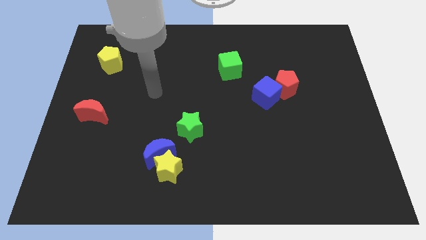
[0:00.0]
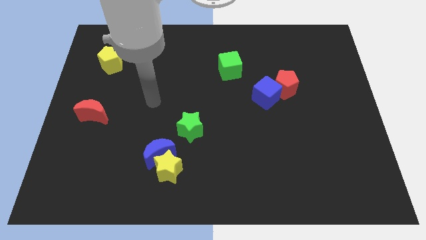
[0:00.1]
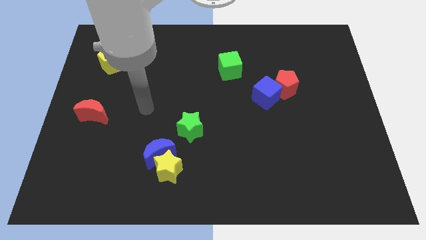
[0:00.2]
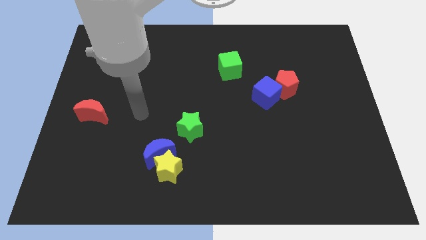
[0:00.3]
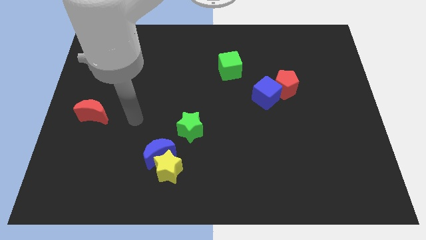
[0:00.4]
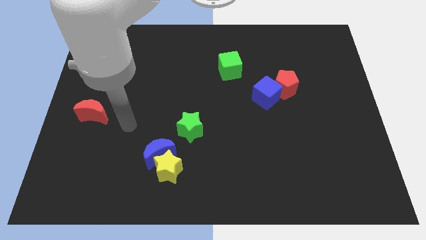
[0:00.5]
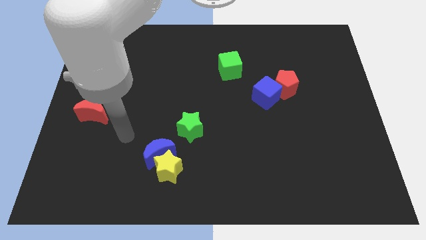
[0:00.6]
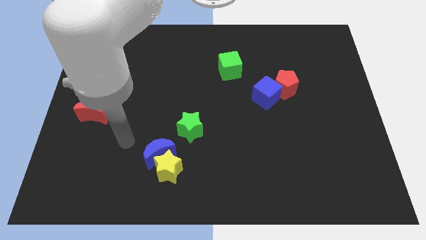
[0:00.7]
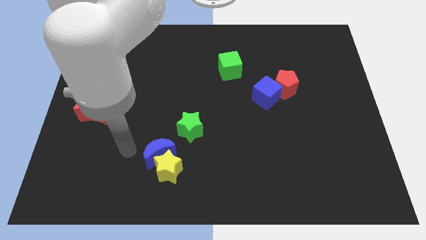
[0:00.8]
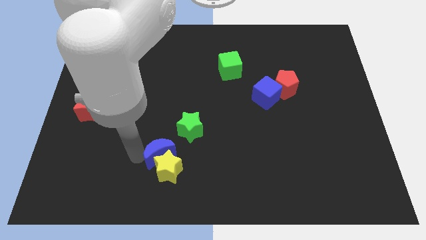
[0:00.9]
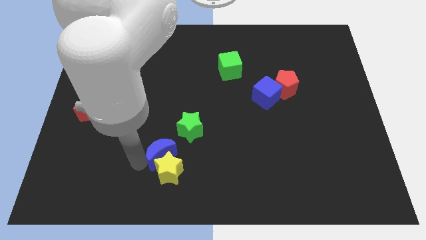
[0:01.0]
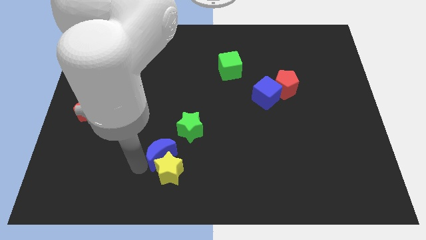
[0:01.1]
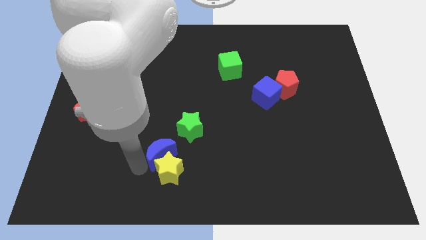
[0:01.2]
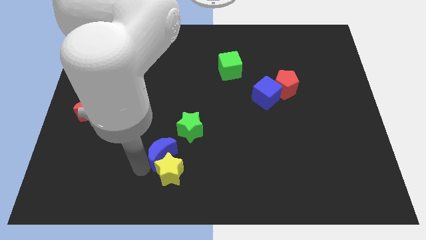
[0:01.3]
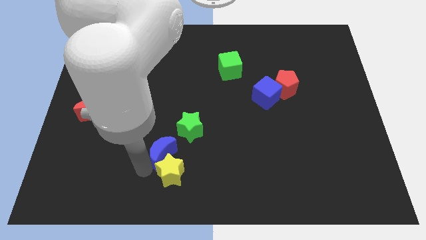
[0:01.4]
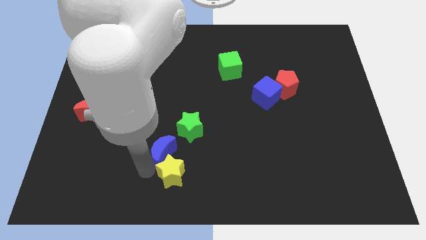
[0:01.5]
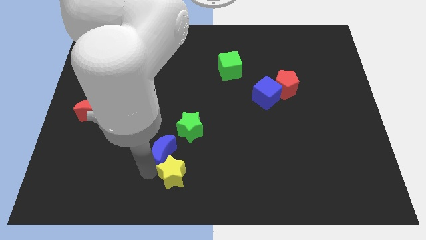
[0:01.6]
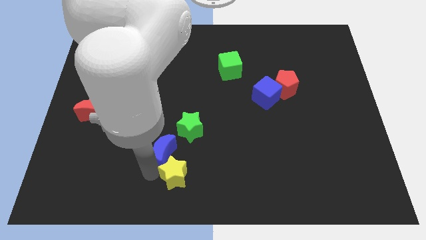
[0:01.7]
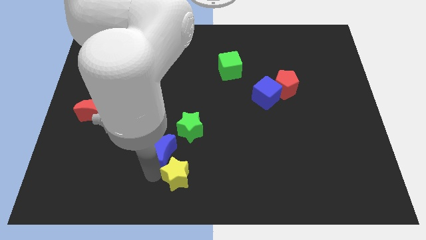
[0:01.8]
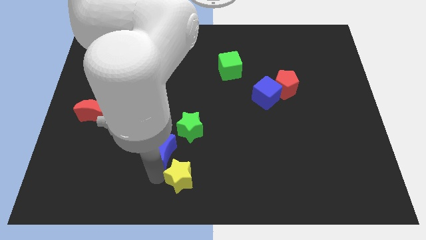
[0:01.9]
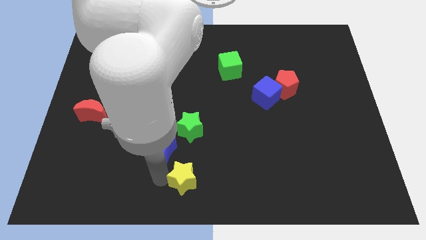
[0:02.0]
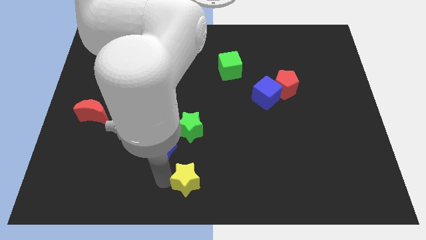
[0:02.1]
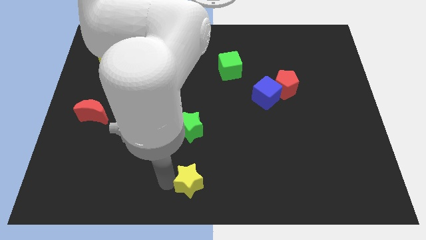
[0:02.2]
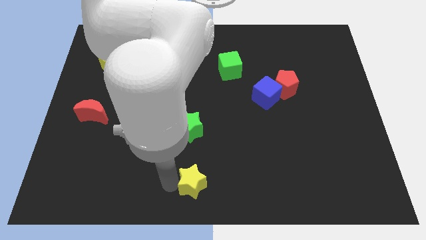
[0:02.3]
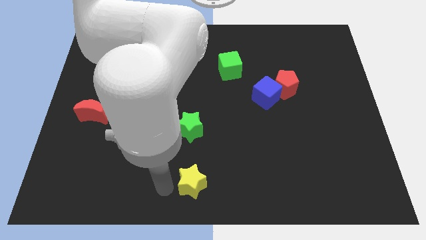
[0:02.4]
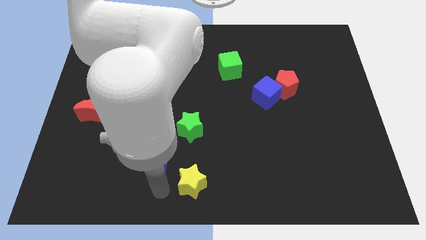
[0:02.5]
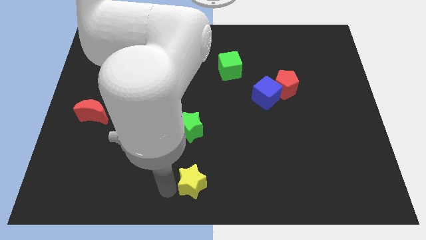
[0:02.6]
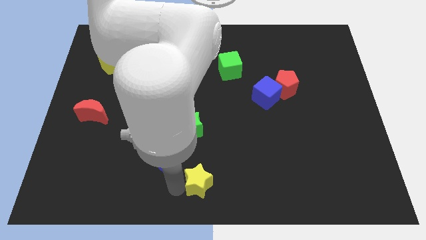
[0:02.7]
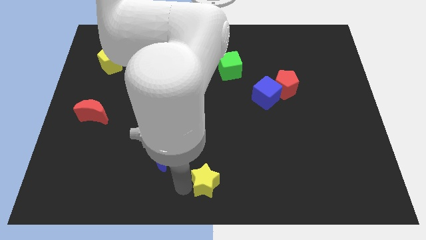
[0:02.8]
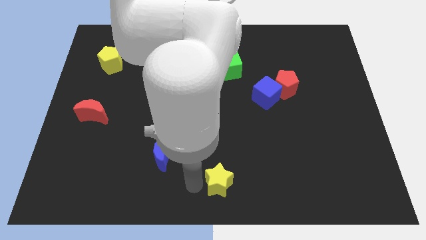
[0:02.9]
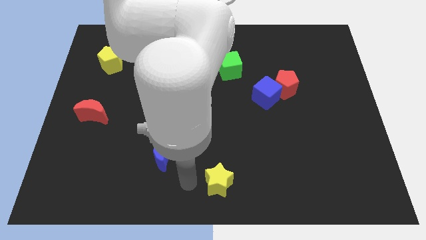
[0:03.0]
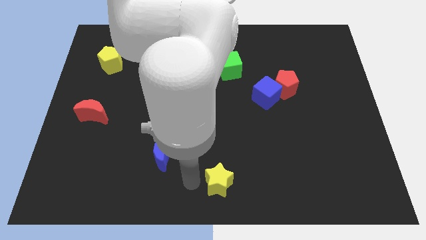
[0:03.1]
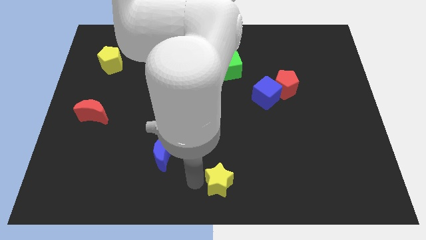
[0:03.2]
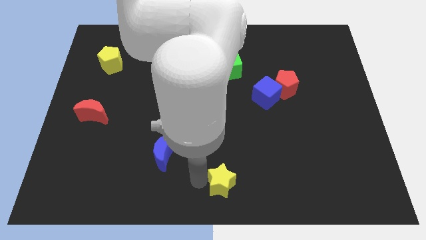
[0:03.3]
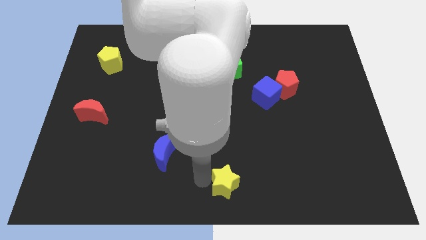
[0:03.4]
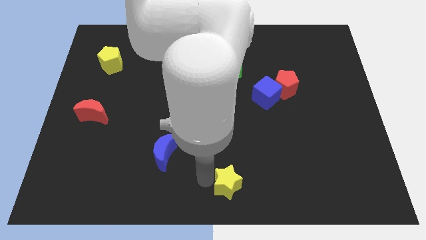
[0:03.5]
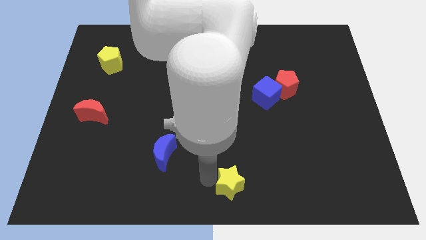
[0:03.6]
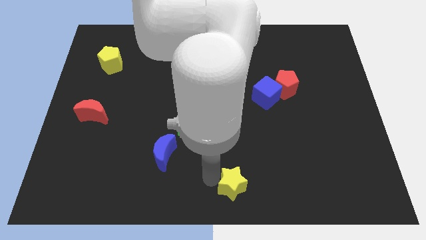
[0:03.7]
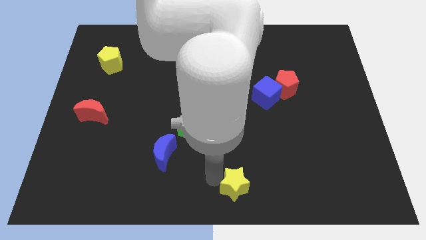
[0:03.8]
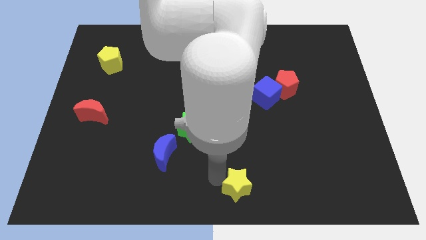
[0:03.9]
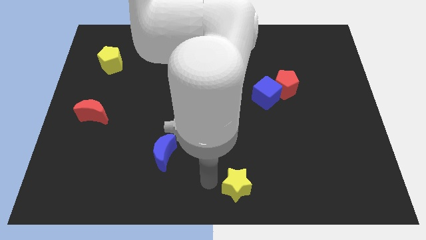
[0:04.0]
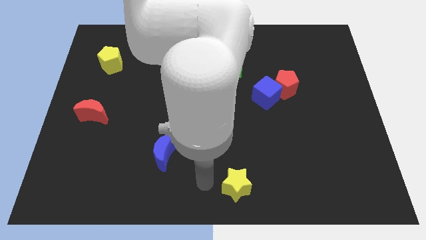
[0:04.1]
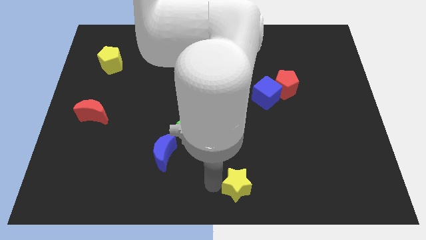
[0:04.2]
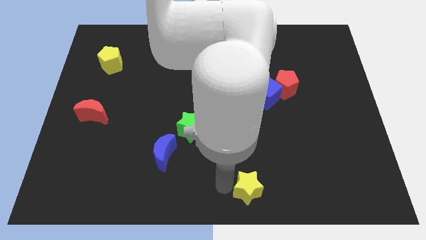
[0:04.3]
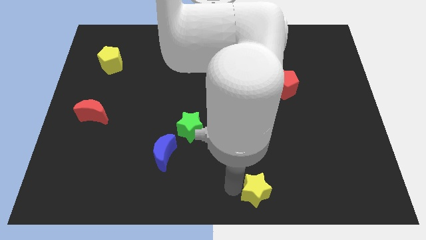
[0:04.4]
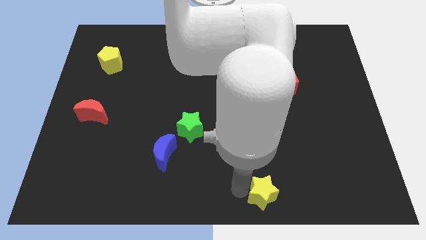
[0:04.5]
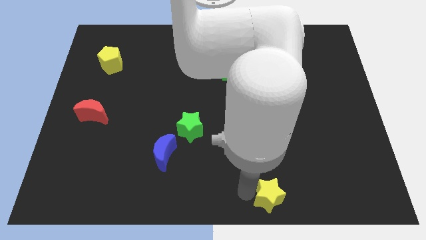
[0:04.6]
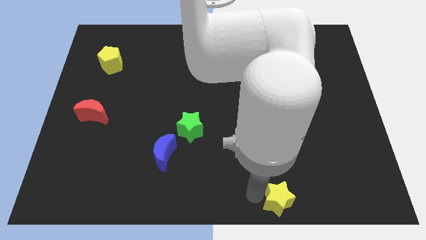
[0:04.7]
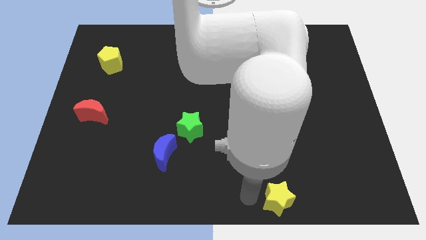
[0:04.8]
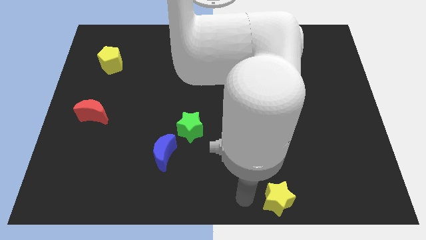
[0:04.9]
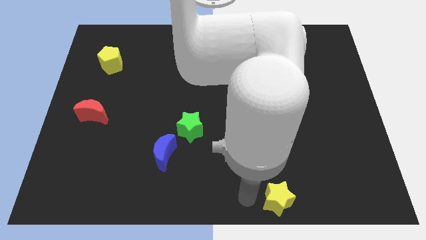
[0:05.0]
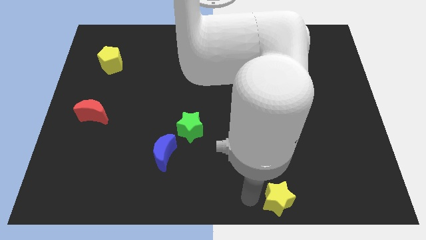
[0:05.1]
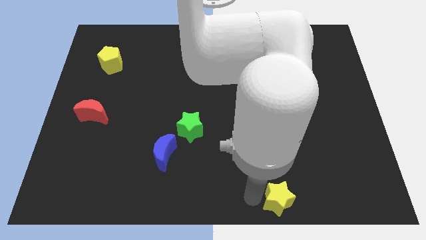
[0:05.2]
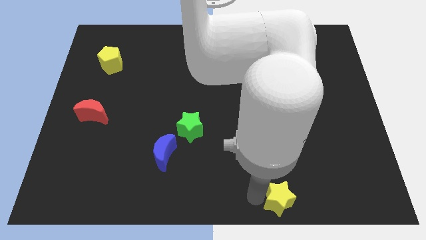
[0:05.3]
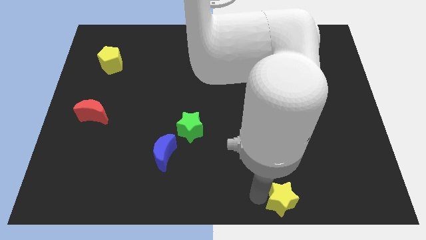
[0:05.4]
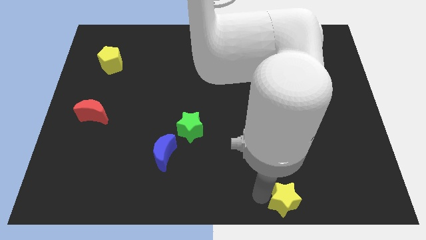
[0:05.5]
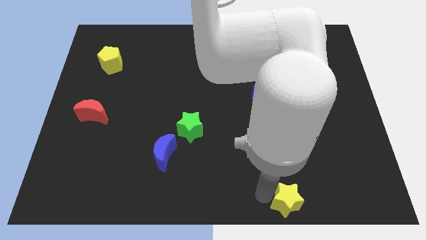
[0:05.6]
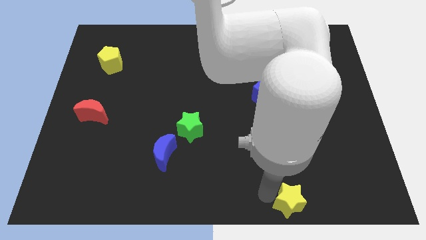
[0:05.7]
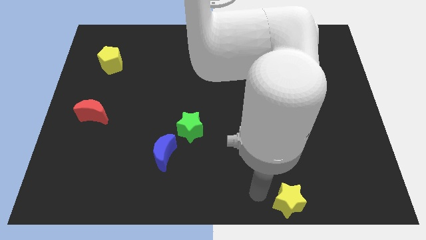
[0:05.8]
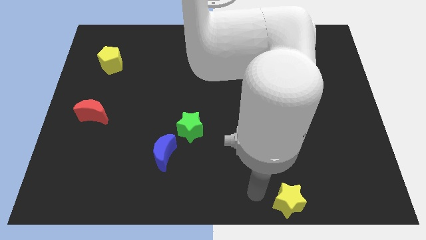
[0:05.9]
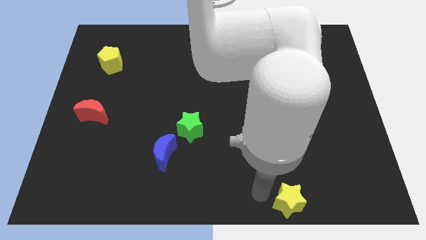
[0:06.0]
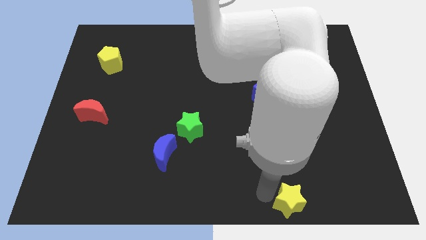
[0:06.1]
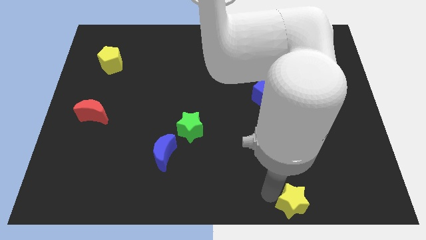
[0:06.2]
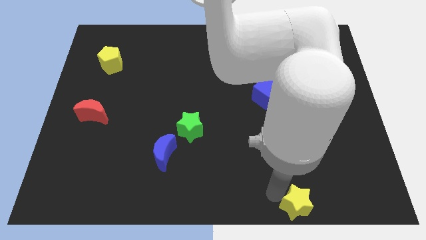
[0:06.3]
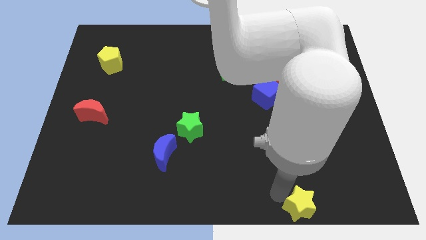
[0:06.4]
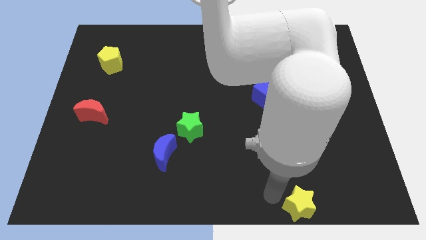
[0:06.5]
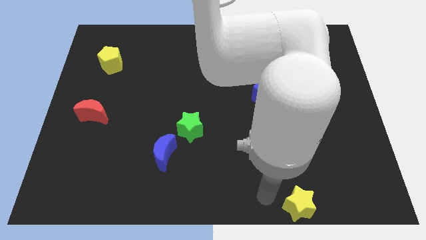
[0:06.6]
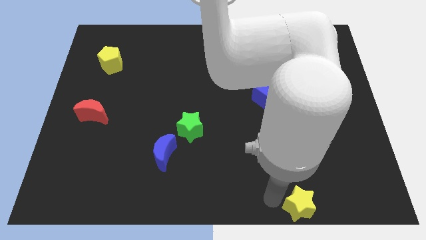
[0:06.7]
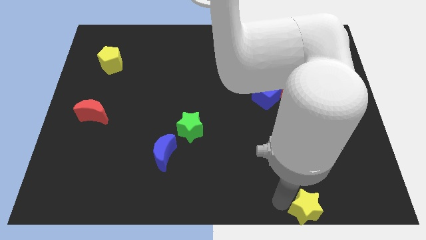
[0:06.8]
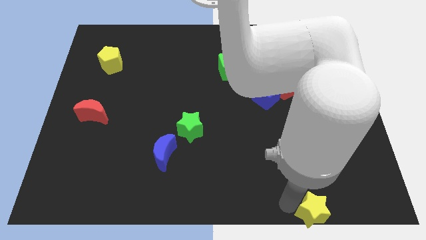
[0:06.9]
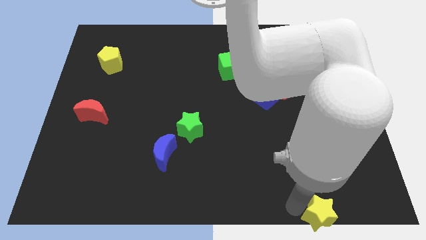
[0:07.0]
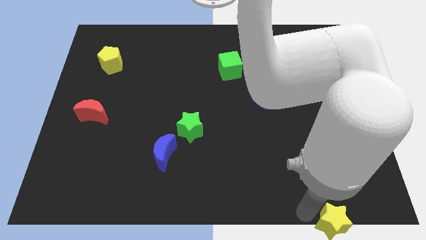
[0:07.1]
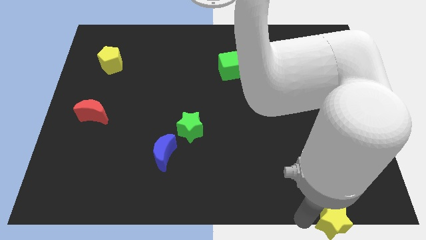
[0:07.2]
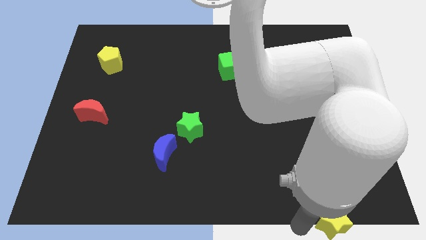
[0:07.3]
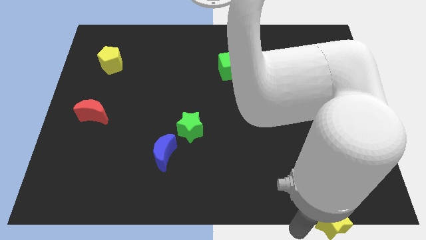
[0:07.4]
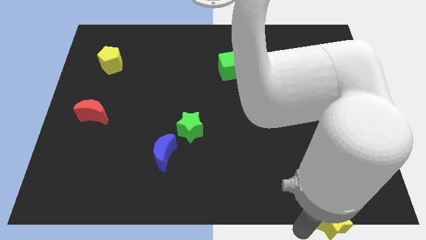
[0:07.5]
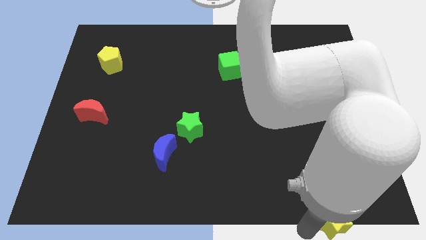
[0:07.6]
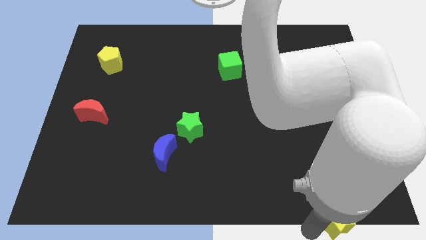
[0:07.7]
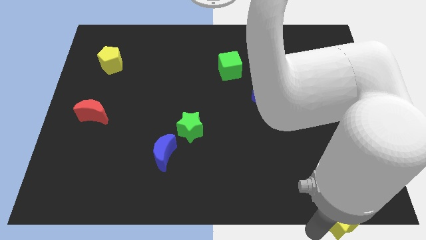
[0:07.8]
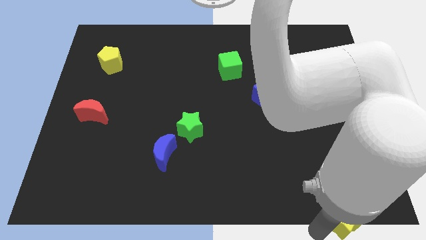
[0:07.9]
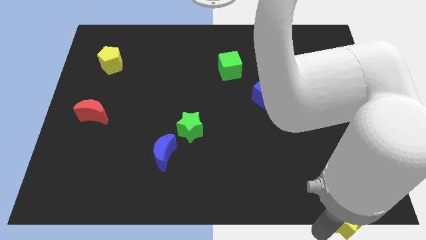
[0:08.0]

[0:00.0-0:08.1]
move the yellow star to the lower right corner
